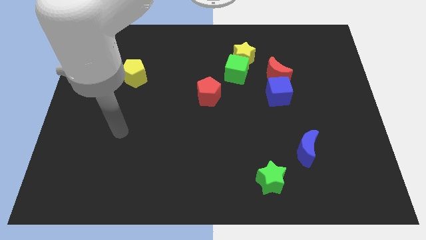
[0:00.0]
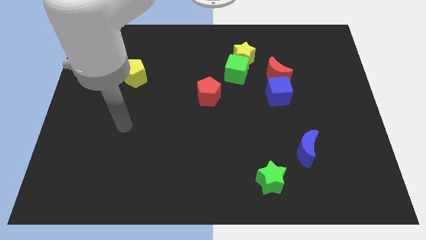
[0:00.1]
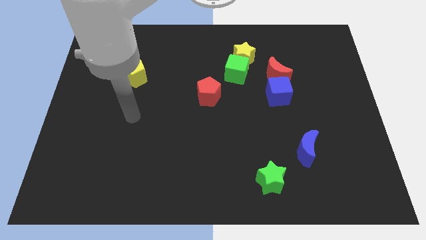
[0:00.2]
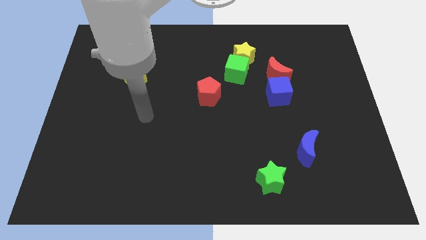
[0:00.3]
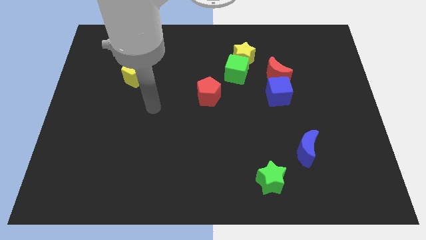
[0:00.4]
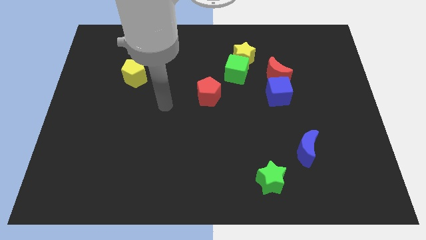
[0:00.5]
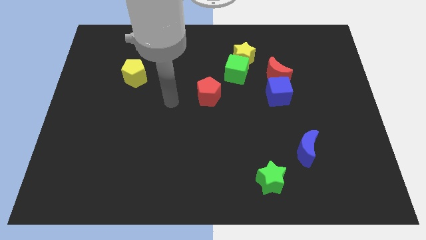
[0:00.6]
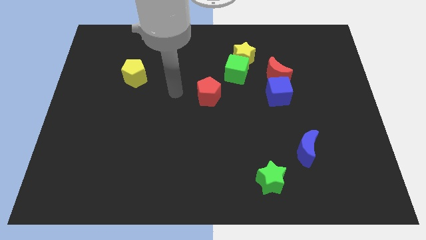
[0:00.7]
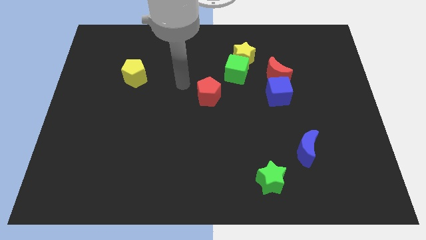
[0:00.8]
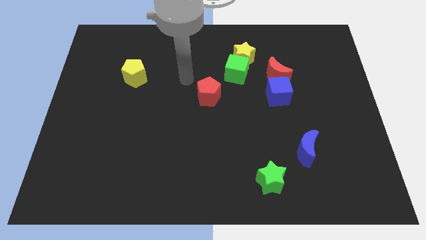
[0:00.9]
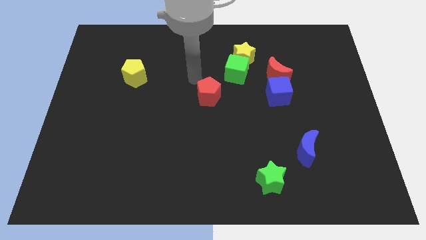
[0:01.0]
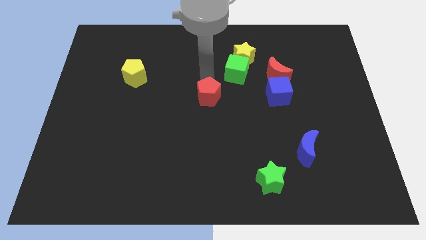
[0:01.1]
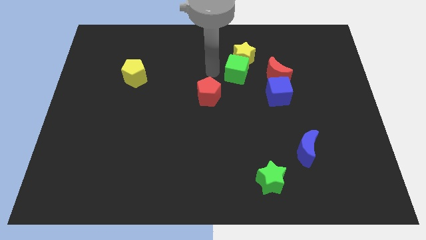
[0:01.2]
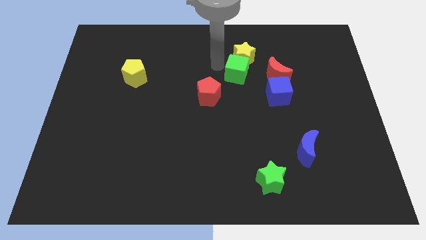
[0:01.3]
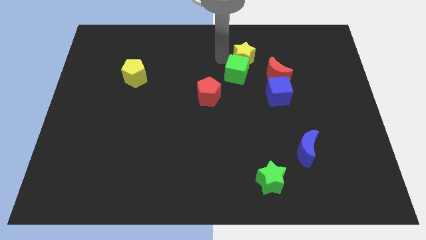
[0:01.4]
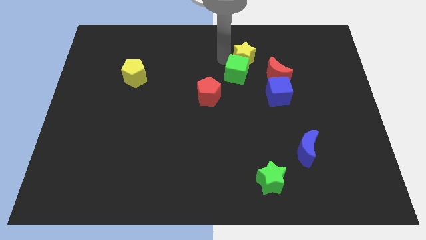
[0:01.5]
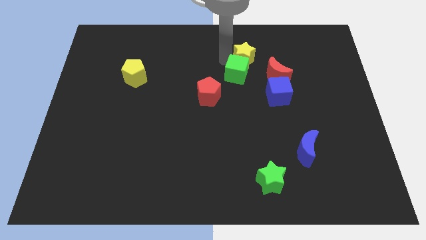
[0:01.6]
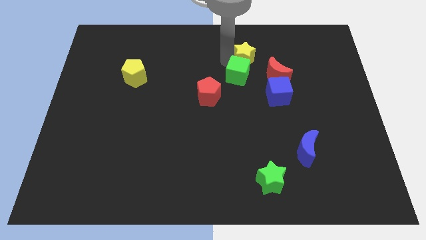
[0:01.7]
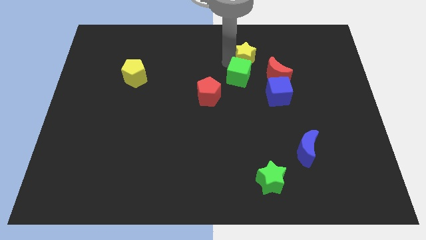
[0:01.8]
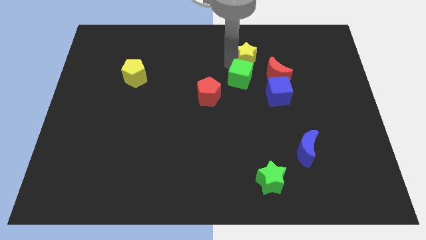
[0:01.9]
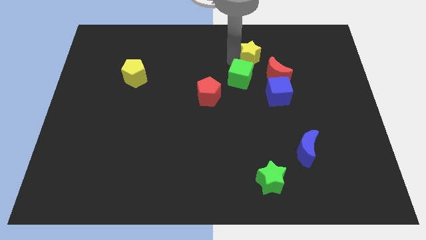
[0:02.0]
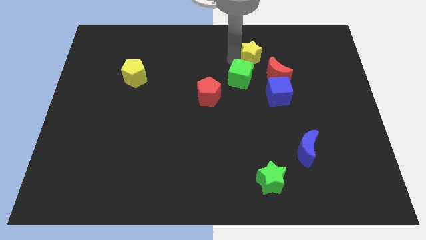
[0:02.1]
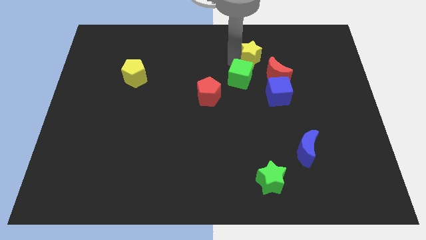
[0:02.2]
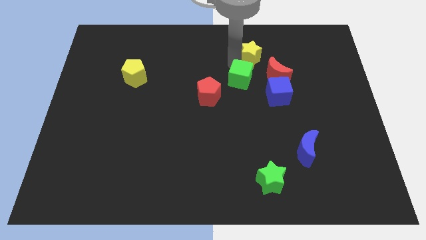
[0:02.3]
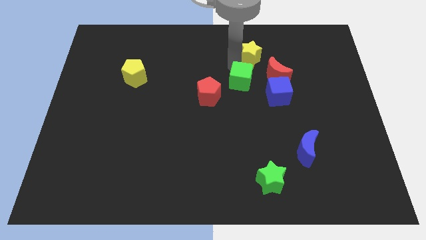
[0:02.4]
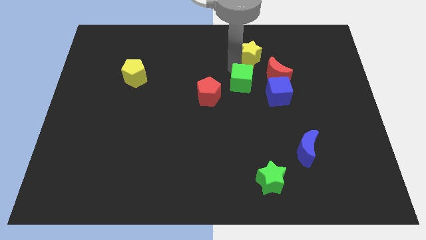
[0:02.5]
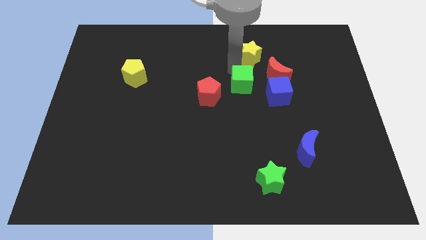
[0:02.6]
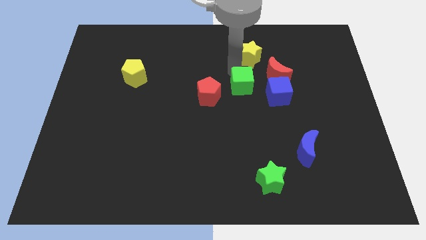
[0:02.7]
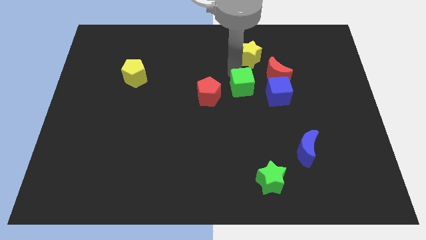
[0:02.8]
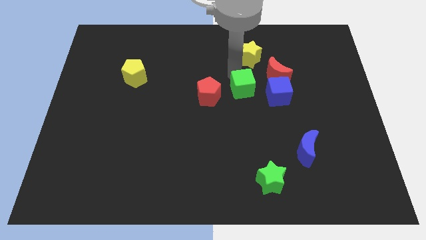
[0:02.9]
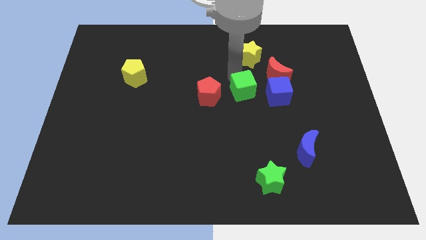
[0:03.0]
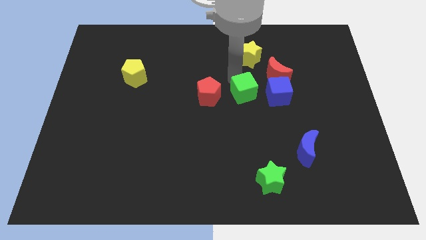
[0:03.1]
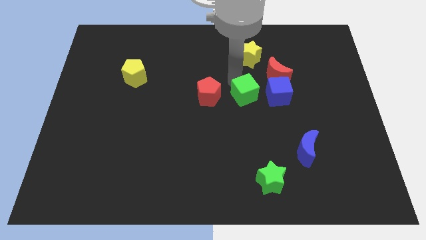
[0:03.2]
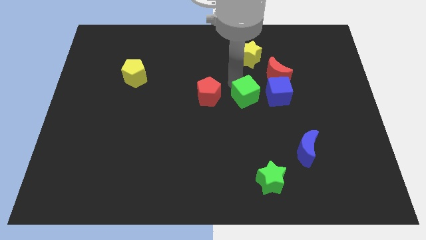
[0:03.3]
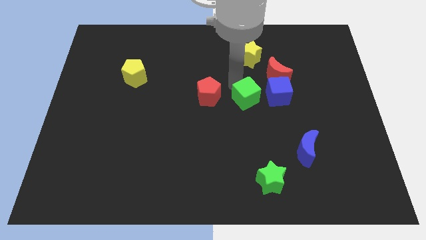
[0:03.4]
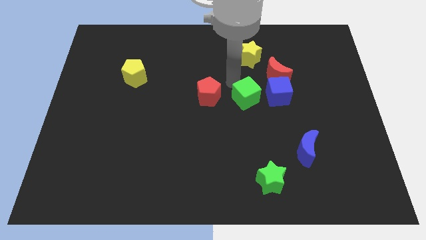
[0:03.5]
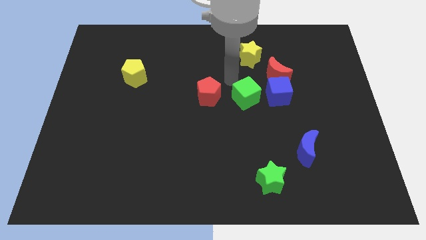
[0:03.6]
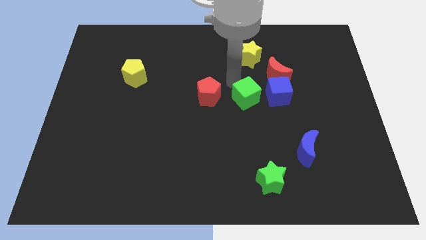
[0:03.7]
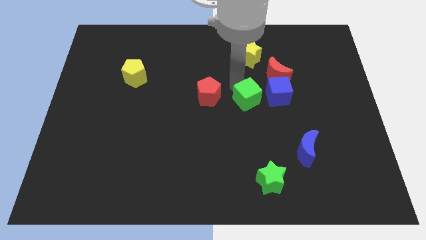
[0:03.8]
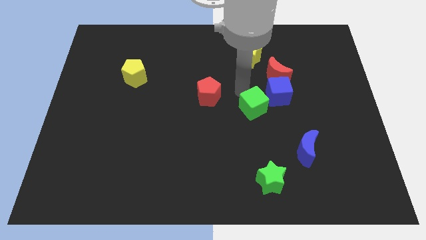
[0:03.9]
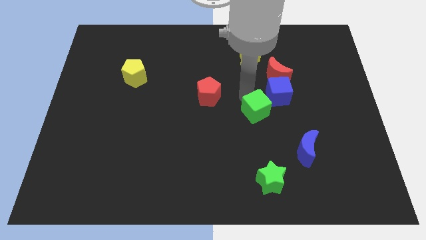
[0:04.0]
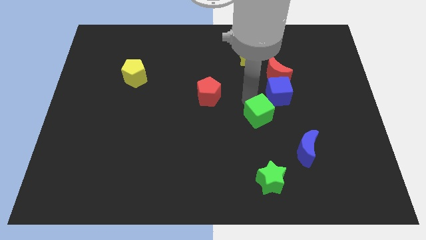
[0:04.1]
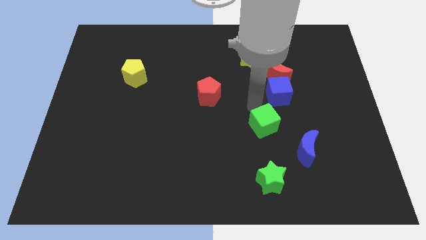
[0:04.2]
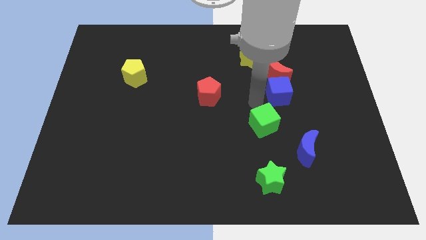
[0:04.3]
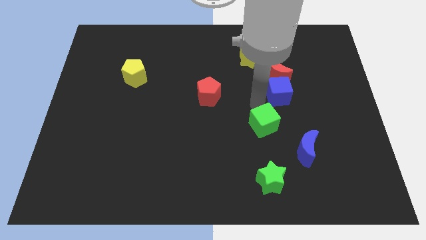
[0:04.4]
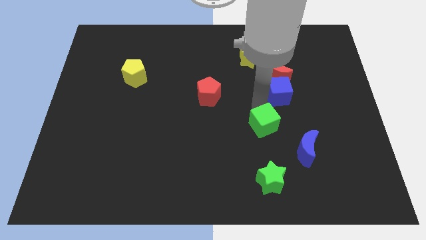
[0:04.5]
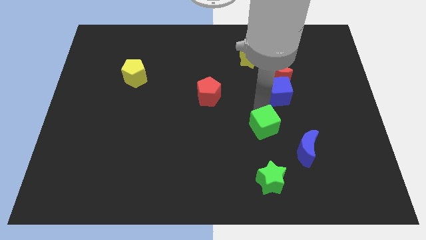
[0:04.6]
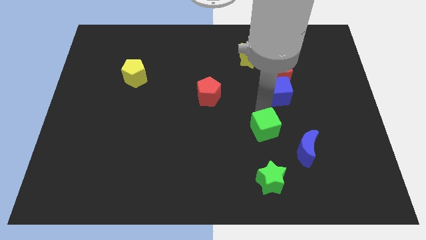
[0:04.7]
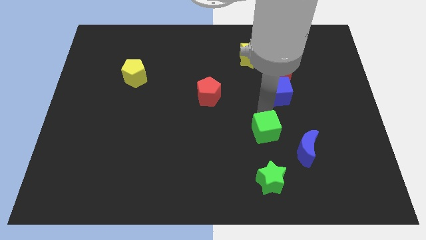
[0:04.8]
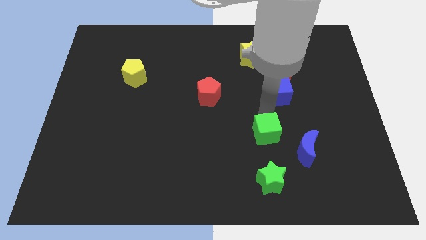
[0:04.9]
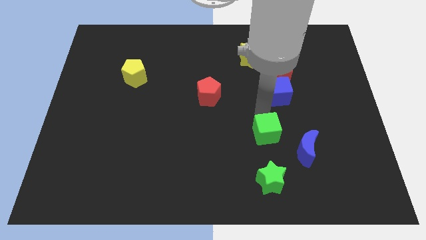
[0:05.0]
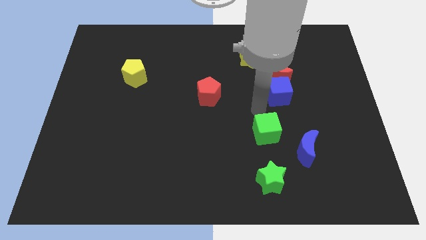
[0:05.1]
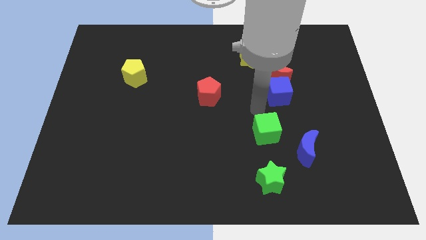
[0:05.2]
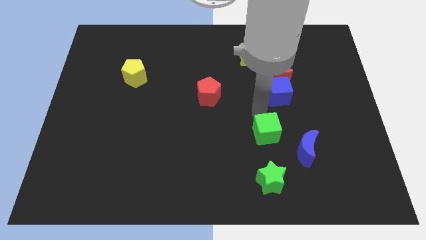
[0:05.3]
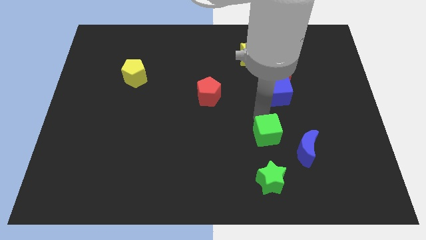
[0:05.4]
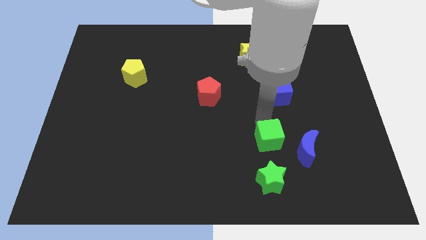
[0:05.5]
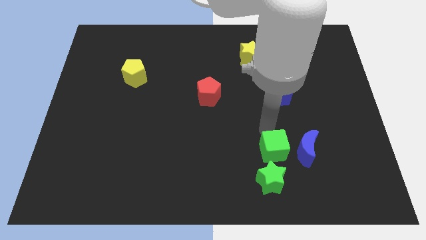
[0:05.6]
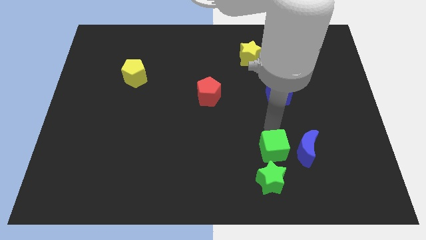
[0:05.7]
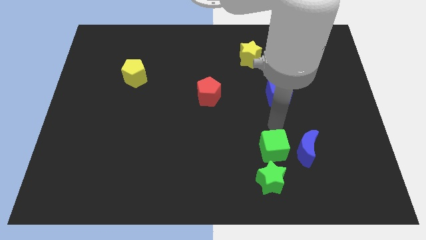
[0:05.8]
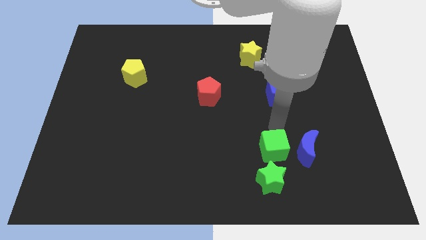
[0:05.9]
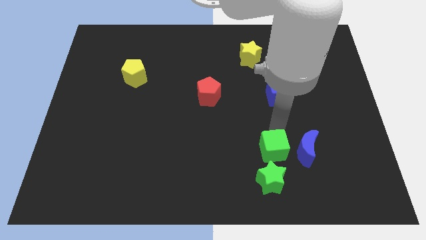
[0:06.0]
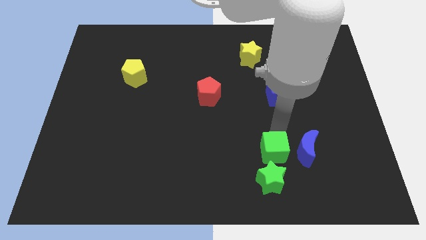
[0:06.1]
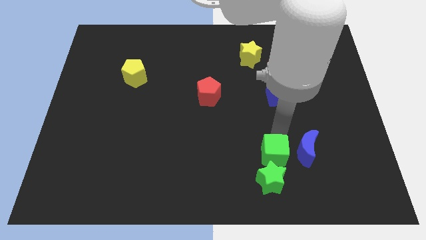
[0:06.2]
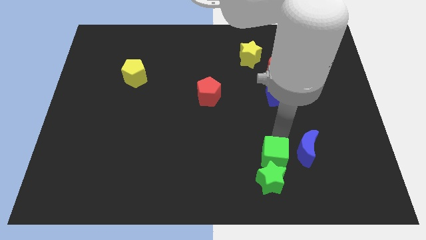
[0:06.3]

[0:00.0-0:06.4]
push the green cube towards the green star

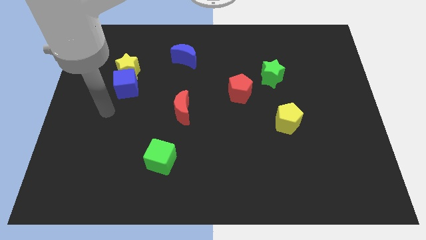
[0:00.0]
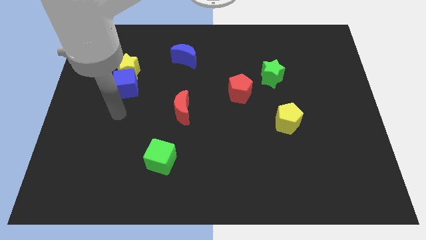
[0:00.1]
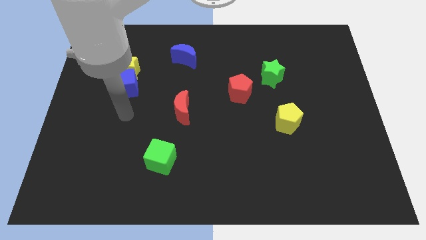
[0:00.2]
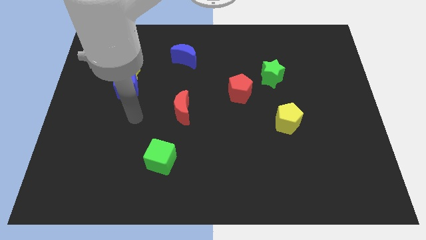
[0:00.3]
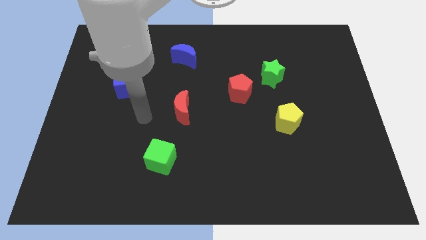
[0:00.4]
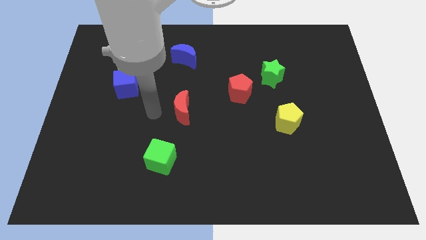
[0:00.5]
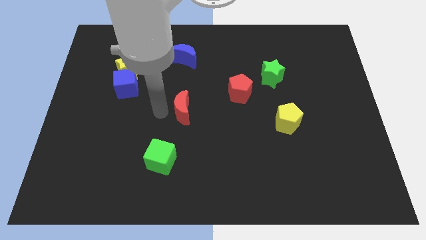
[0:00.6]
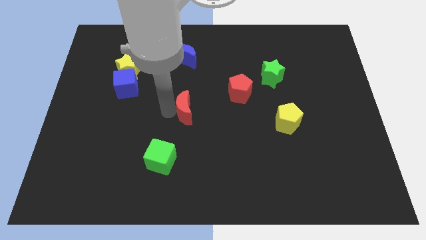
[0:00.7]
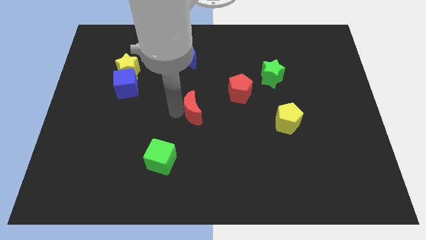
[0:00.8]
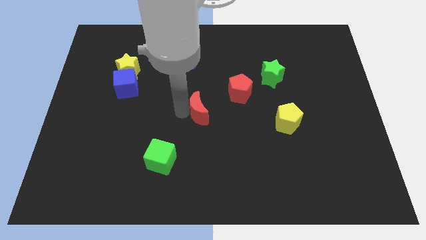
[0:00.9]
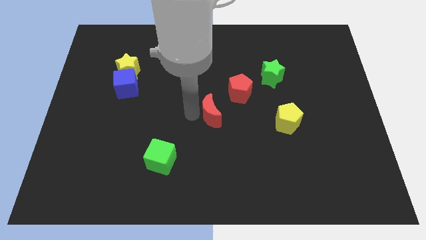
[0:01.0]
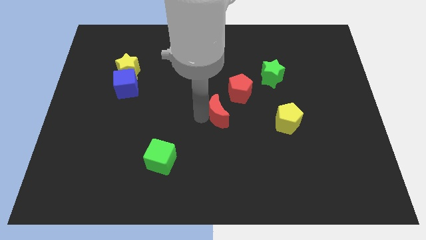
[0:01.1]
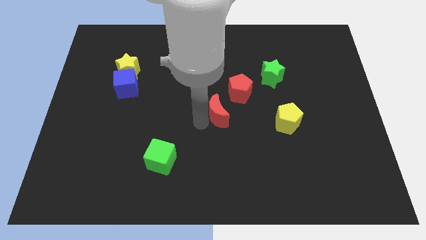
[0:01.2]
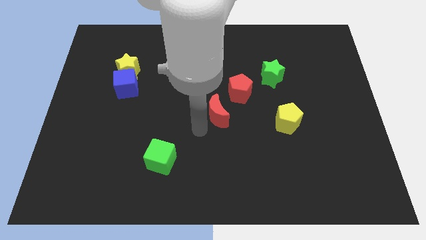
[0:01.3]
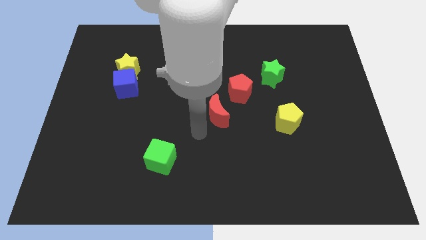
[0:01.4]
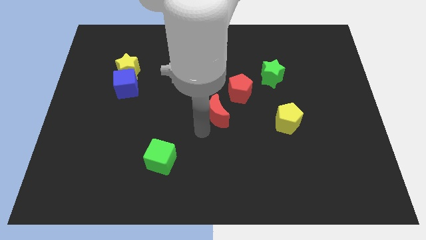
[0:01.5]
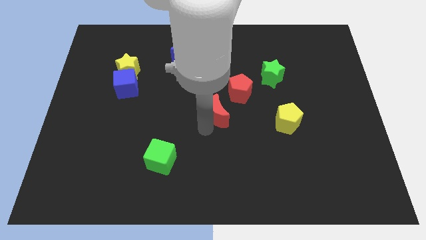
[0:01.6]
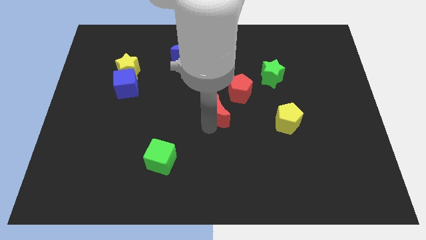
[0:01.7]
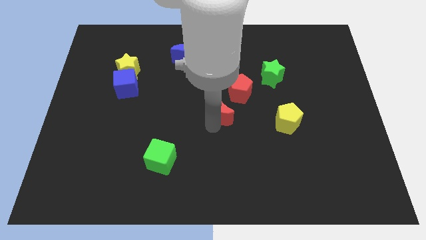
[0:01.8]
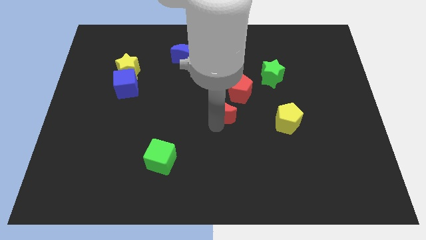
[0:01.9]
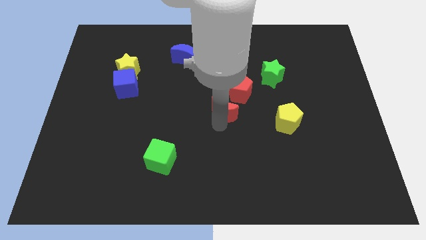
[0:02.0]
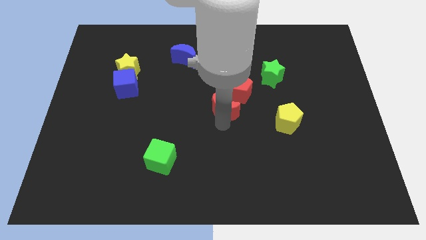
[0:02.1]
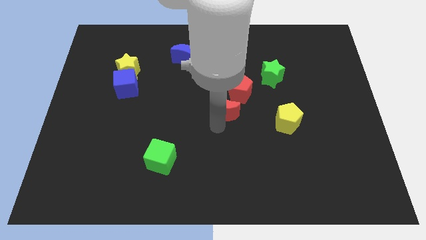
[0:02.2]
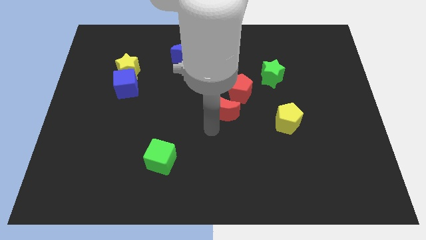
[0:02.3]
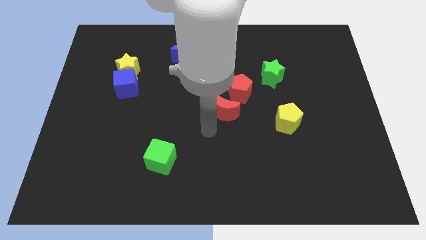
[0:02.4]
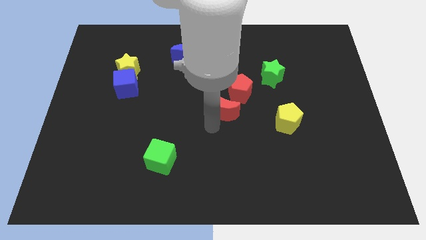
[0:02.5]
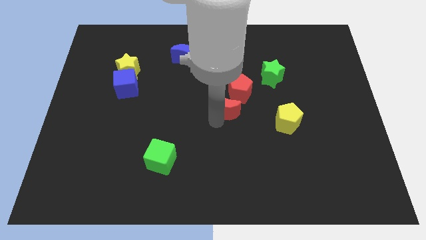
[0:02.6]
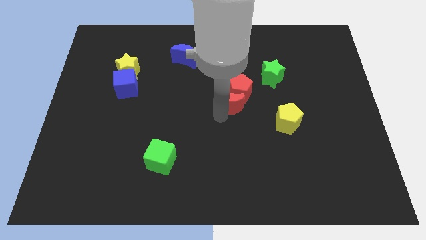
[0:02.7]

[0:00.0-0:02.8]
move the red moon close to the red pentagon
